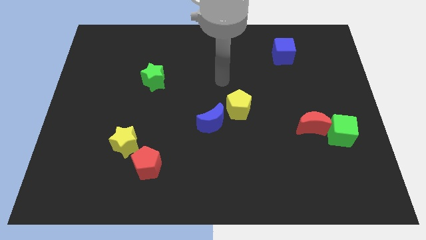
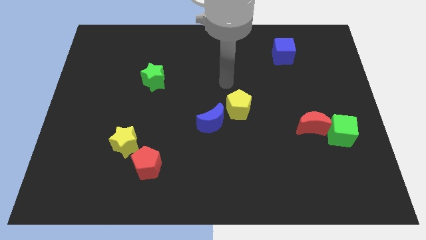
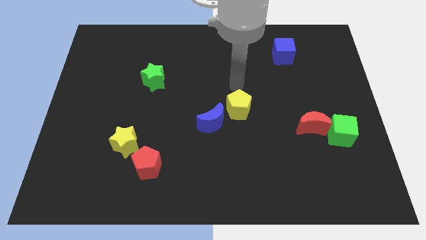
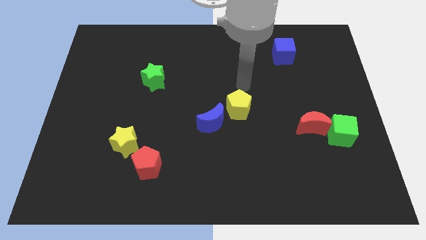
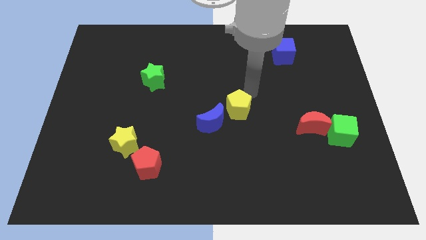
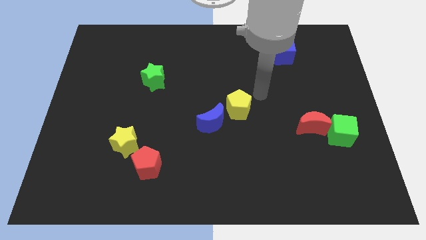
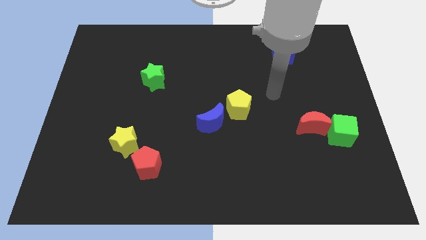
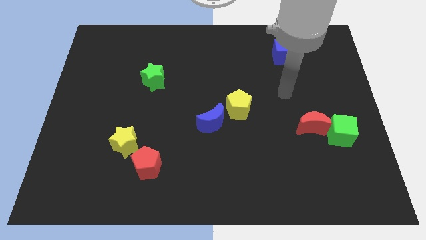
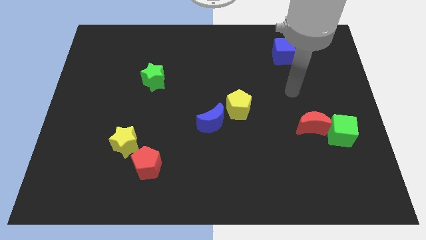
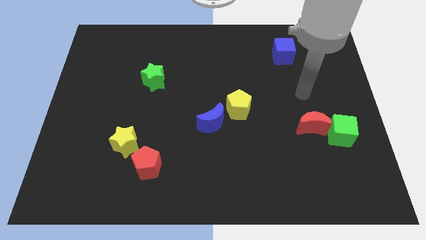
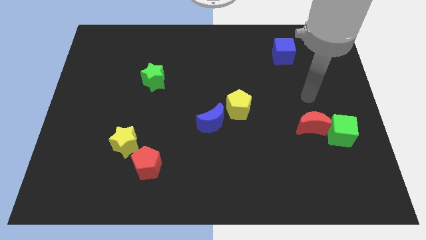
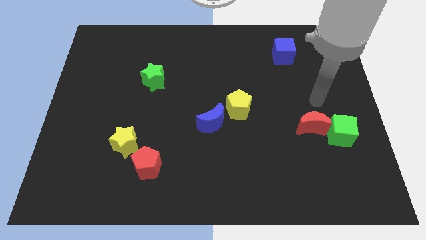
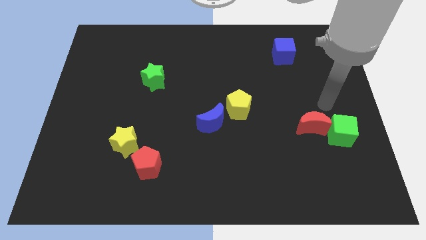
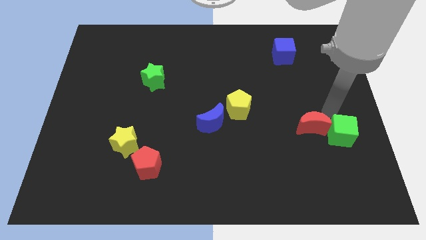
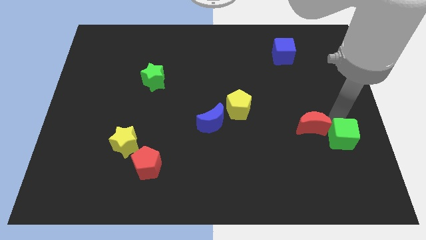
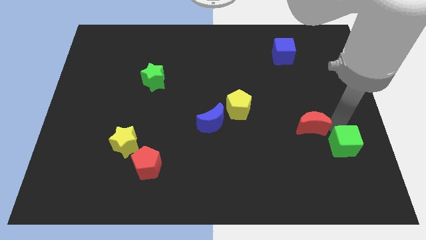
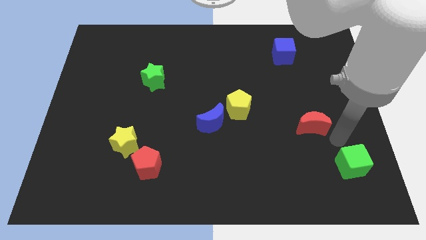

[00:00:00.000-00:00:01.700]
move the red moon away from the green cube

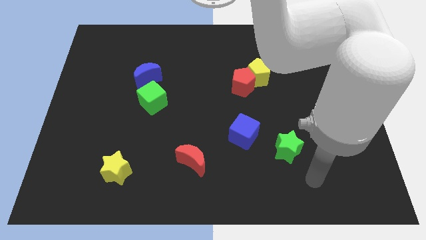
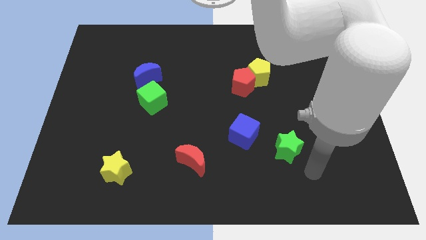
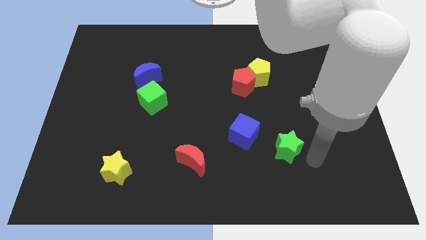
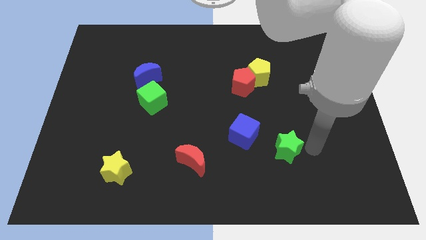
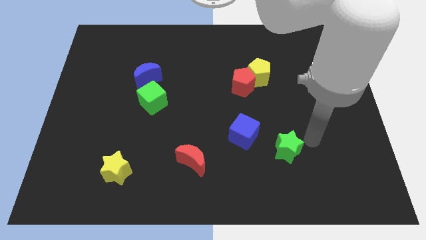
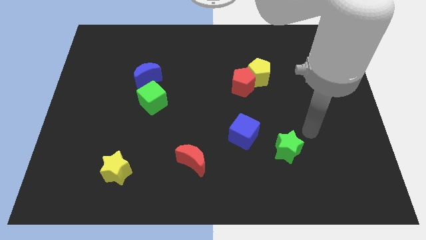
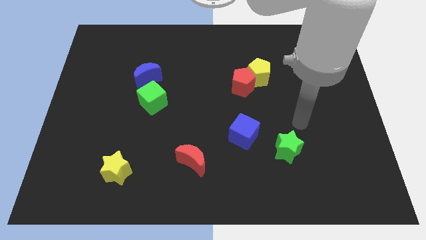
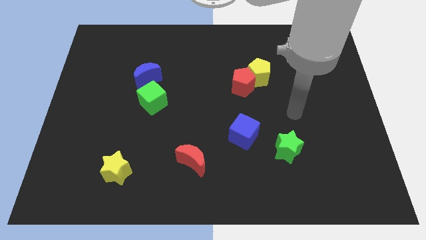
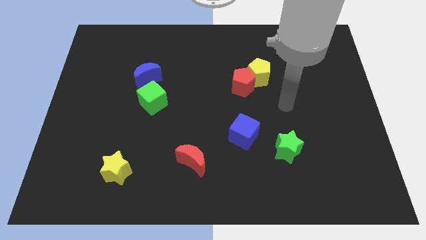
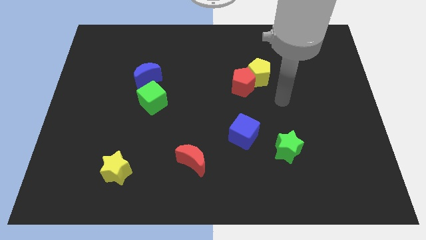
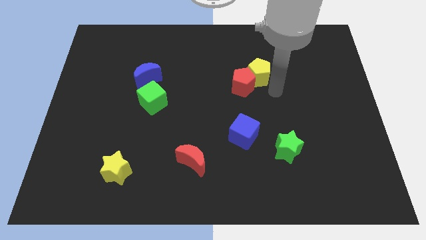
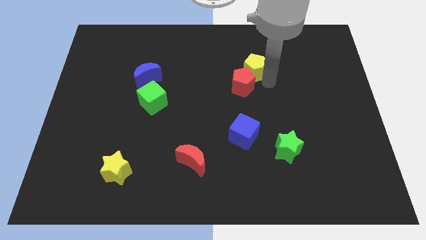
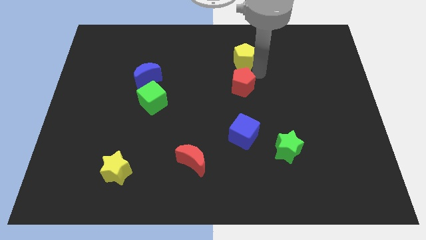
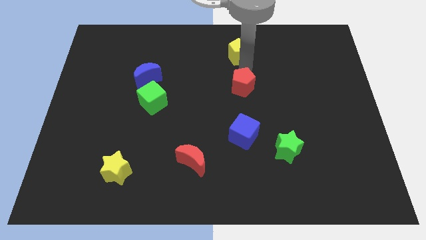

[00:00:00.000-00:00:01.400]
separate the red pentagon from the yellow pentagon

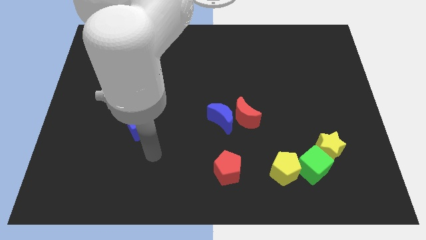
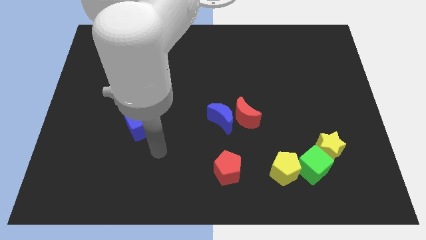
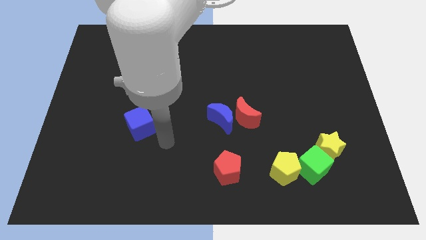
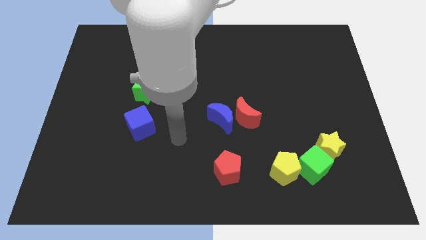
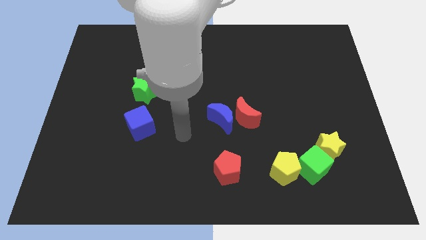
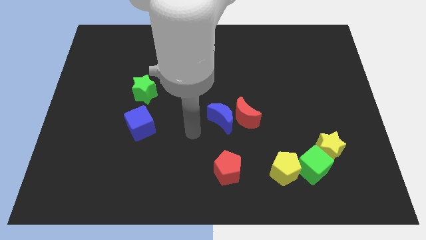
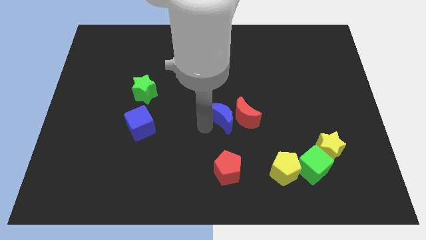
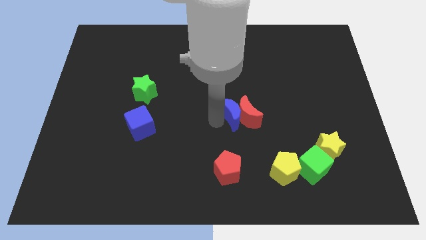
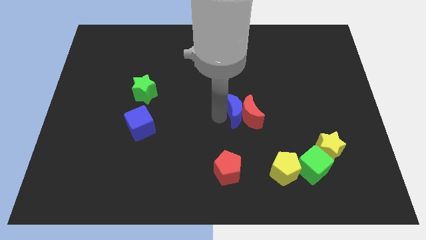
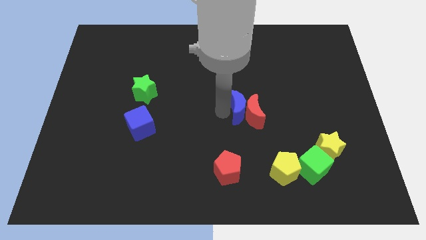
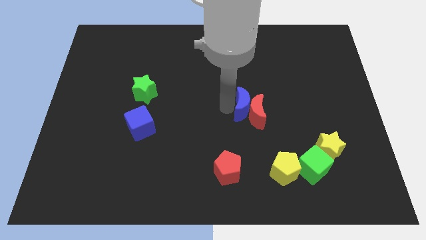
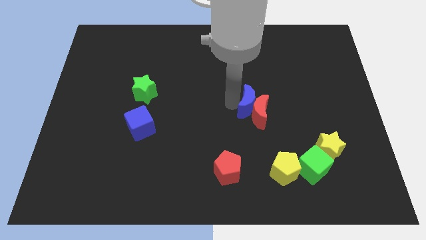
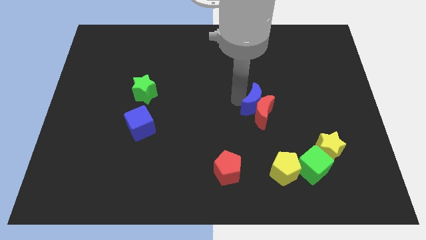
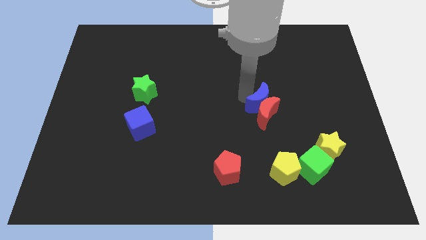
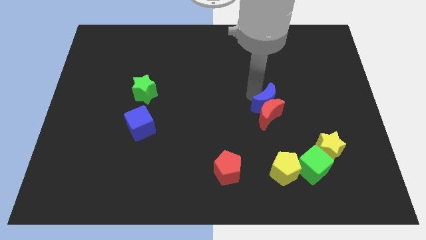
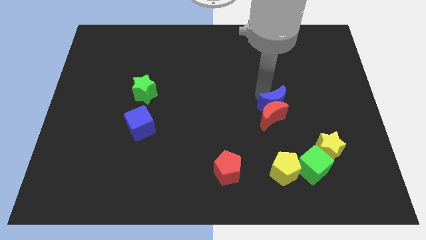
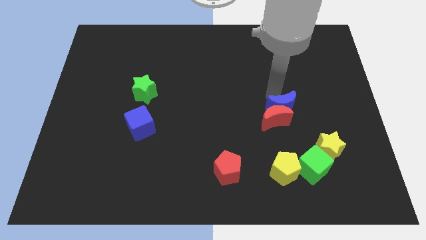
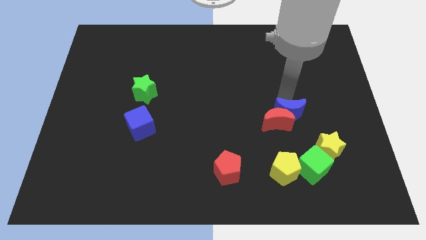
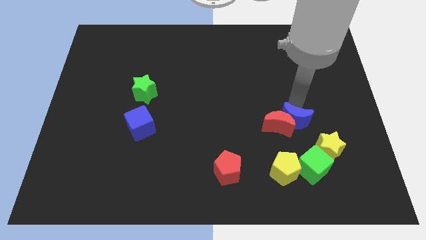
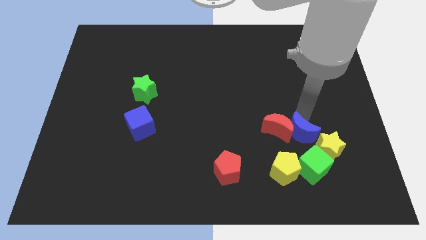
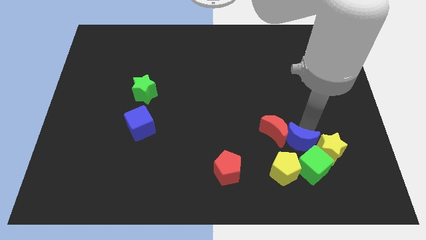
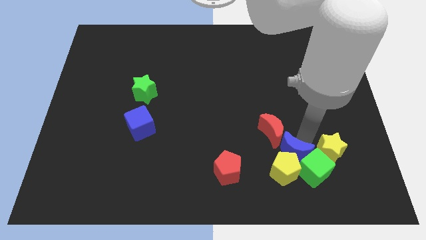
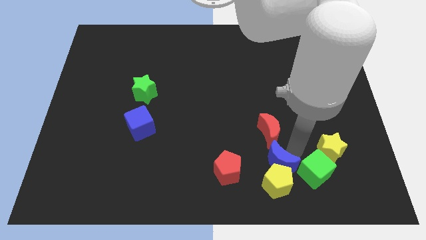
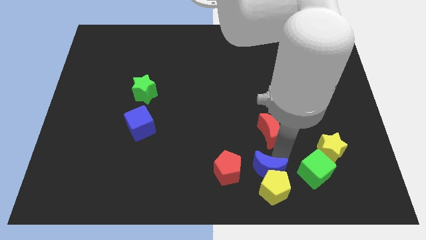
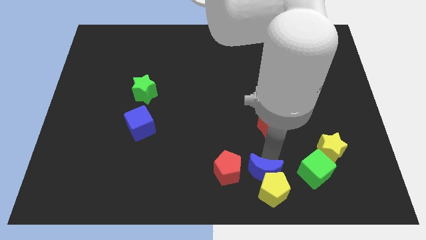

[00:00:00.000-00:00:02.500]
separate the red moon from the blue moon

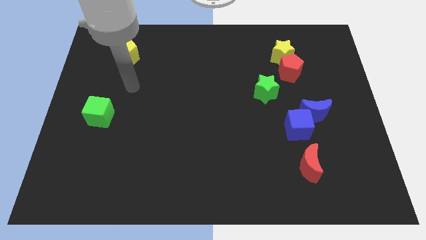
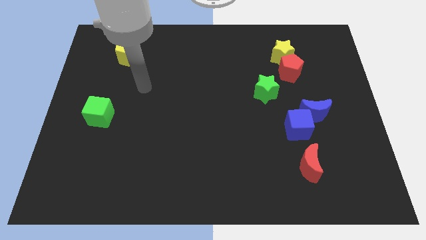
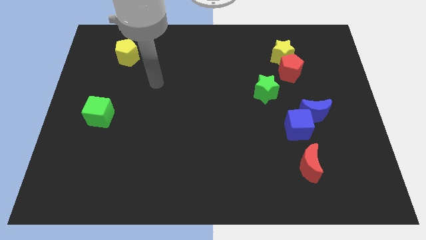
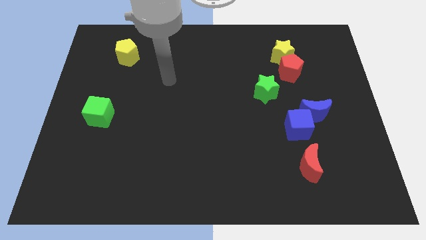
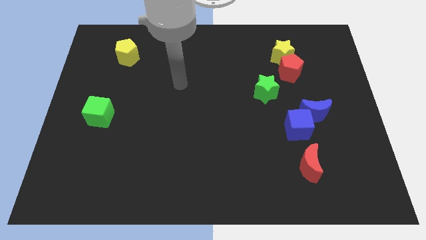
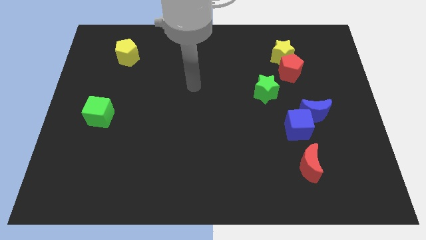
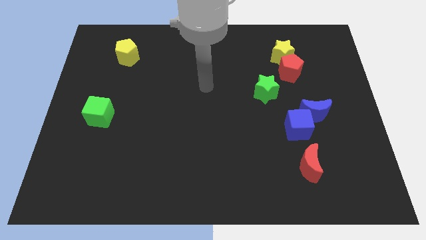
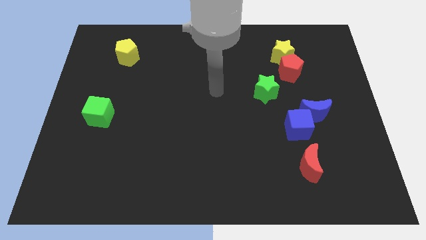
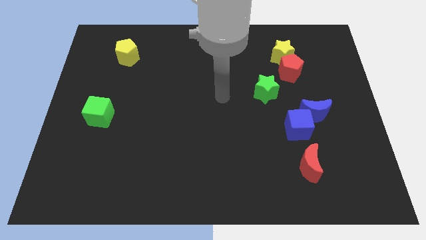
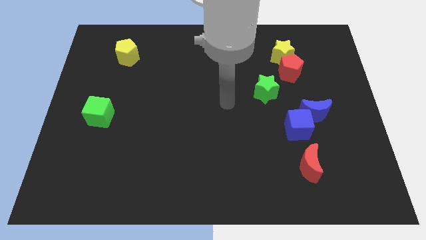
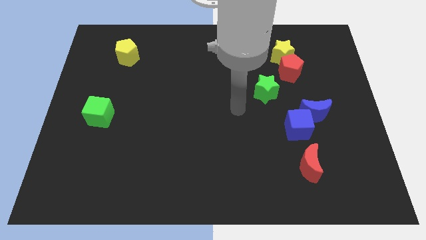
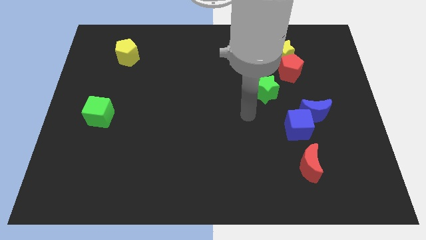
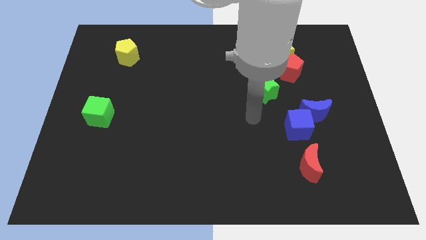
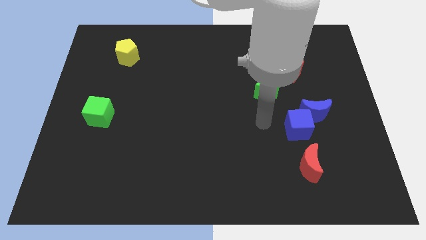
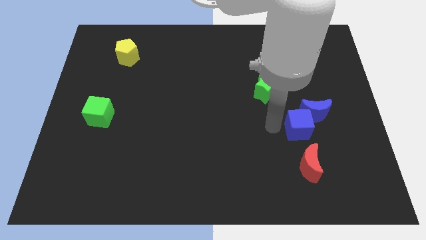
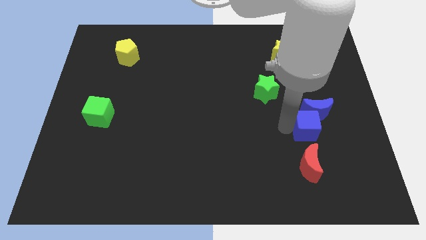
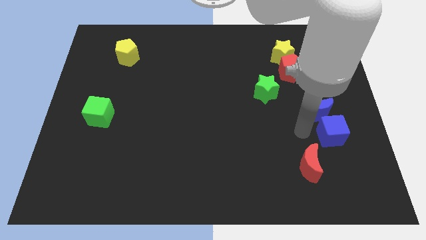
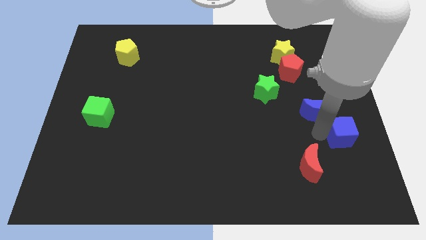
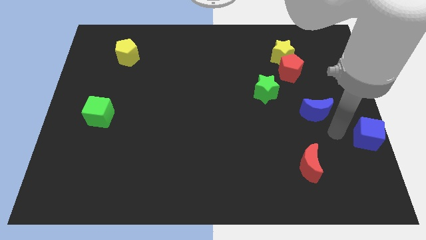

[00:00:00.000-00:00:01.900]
move the blue moon away from the blue cube

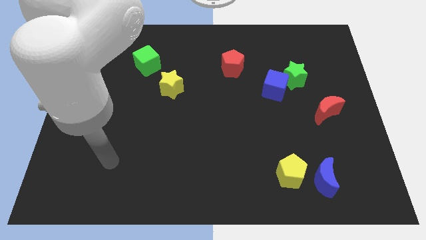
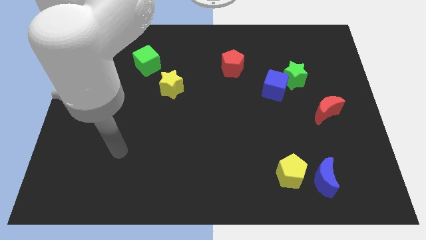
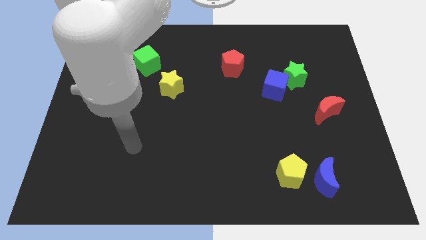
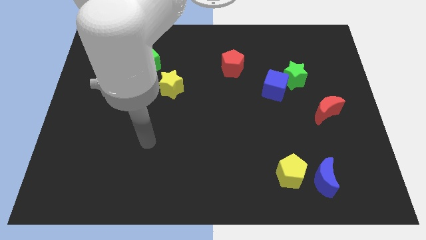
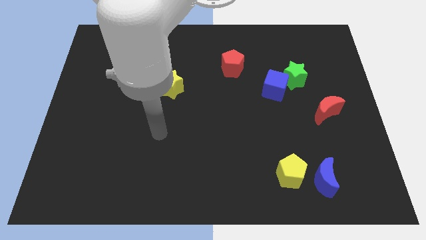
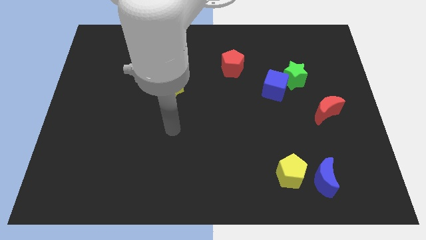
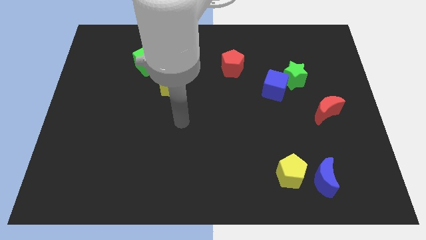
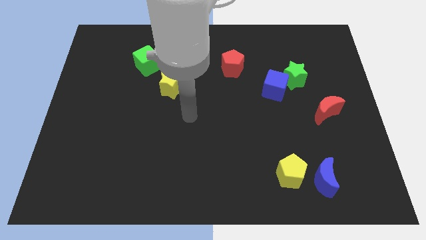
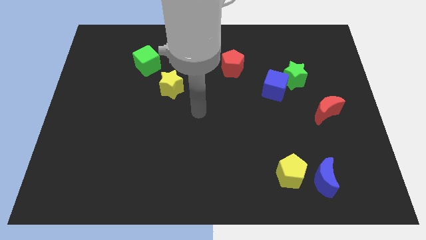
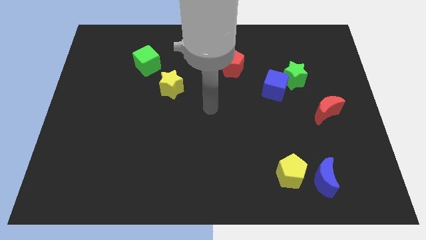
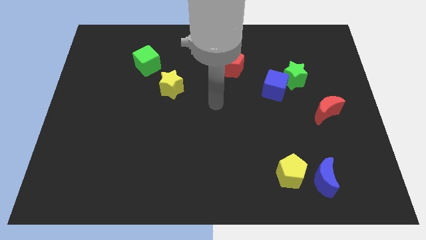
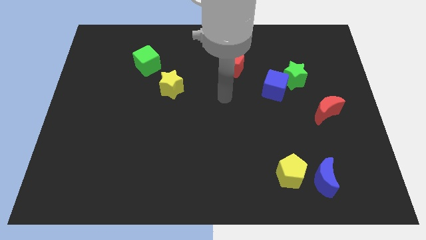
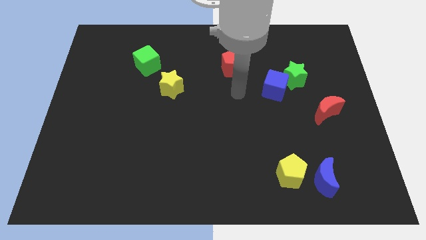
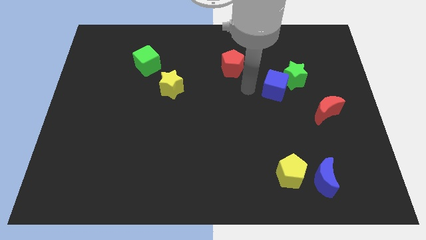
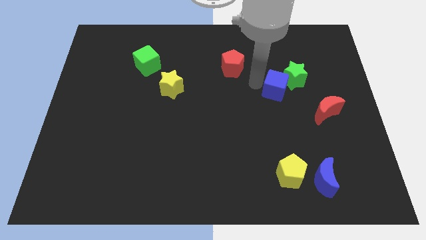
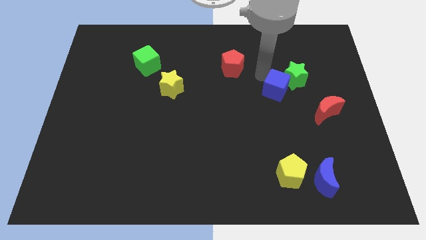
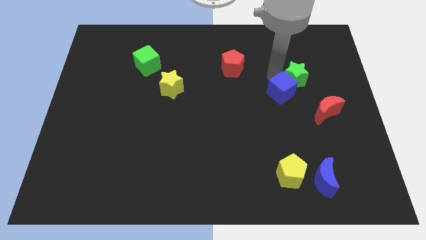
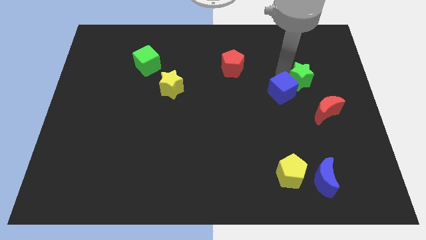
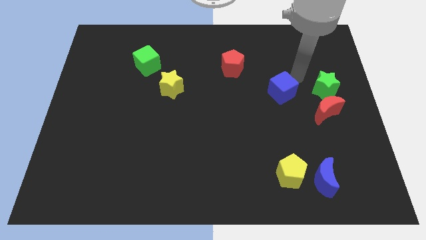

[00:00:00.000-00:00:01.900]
move the blue cube away from the green star
